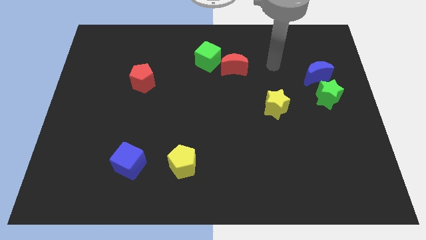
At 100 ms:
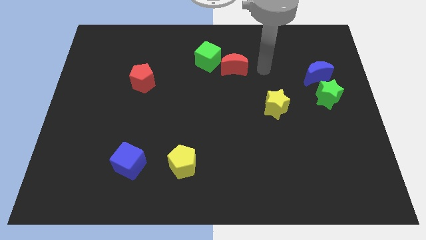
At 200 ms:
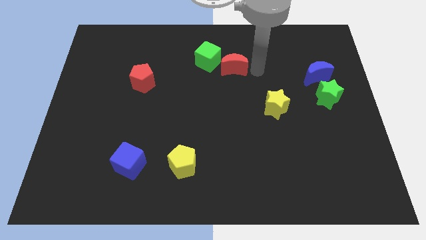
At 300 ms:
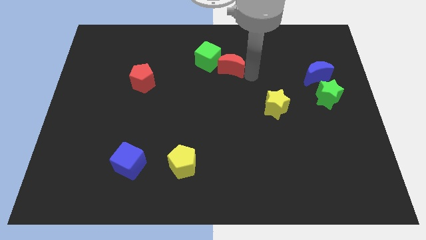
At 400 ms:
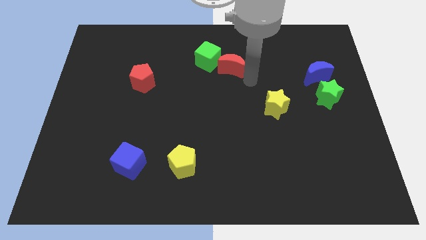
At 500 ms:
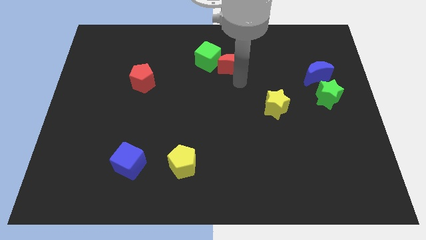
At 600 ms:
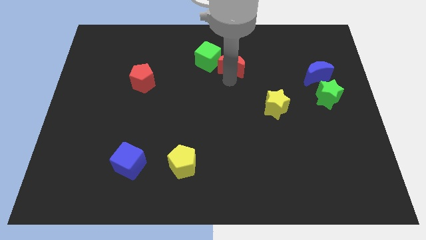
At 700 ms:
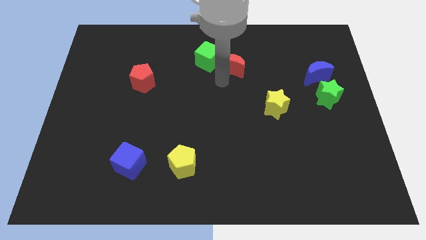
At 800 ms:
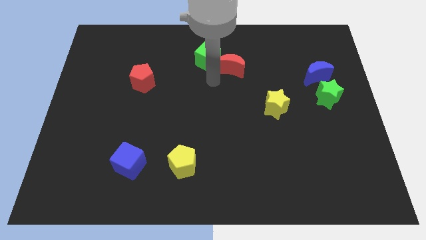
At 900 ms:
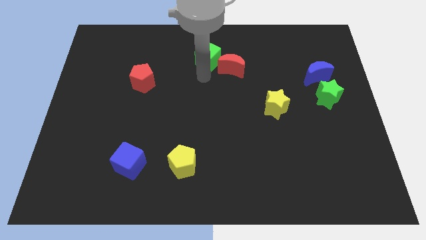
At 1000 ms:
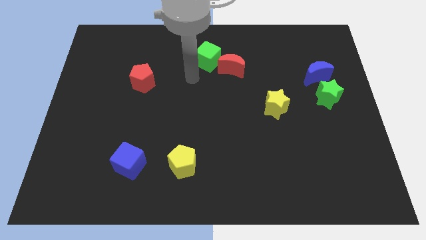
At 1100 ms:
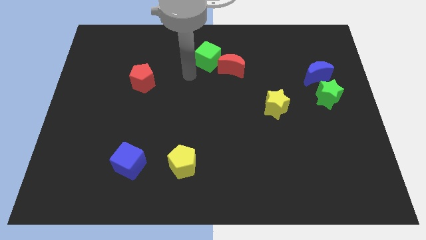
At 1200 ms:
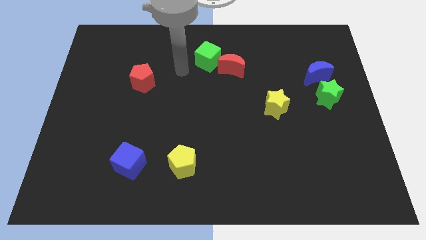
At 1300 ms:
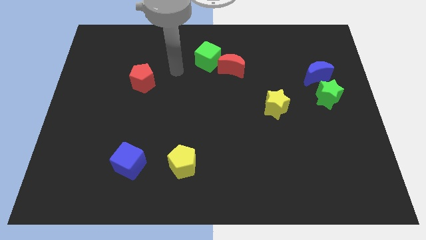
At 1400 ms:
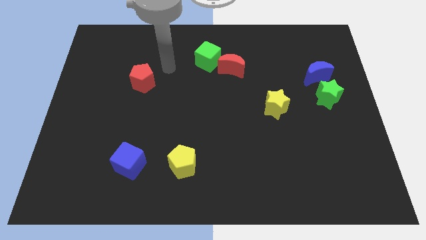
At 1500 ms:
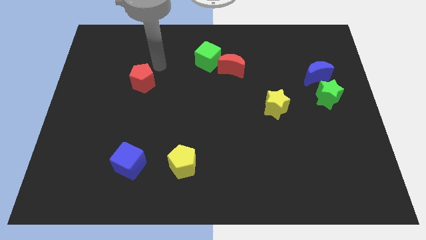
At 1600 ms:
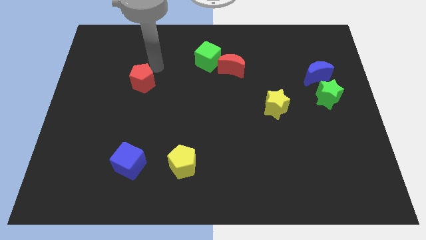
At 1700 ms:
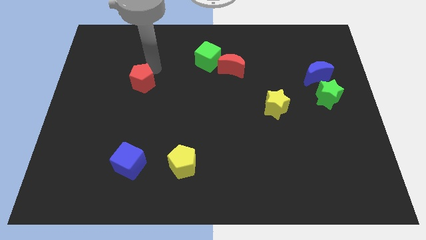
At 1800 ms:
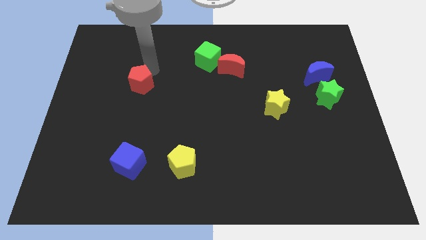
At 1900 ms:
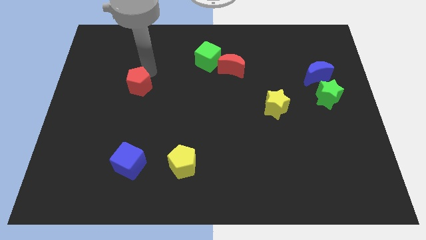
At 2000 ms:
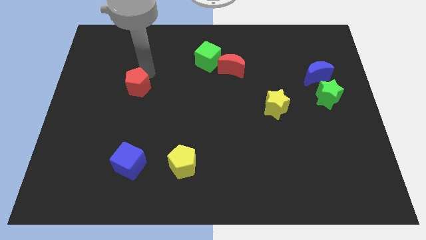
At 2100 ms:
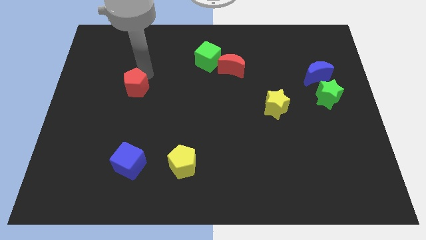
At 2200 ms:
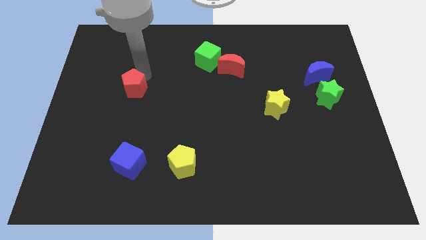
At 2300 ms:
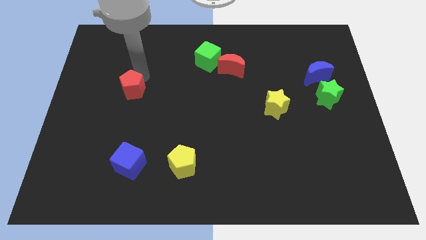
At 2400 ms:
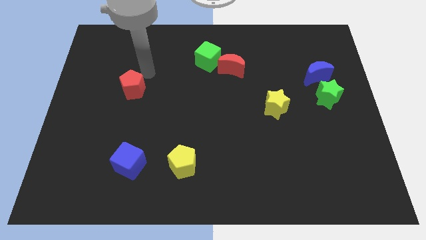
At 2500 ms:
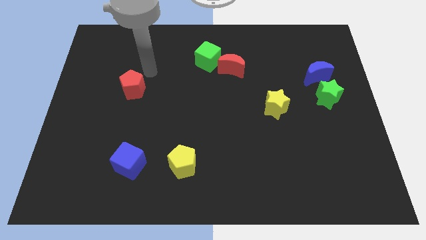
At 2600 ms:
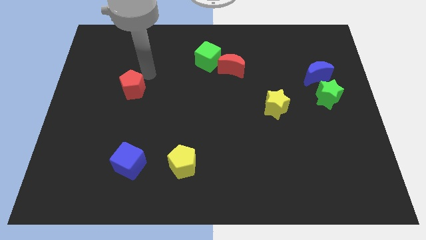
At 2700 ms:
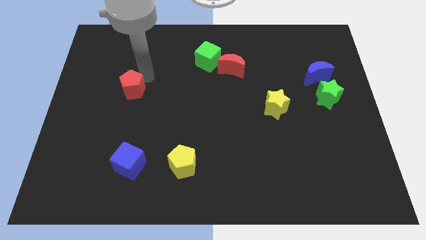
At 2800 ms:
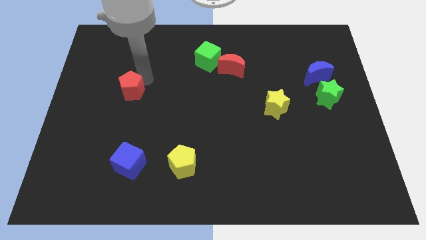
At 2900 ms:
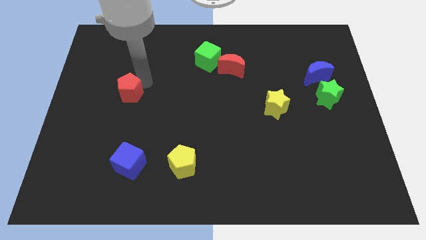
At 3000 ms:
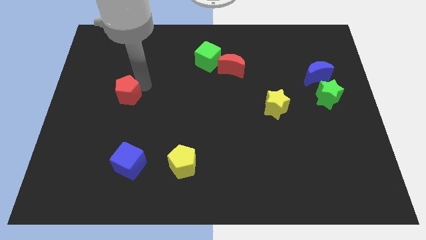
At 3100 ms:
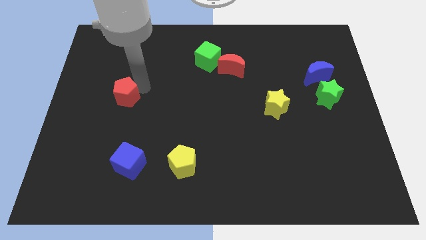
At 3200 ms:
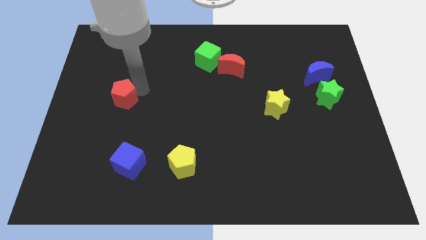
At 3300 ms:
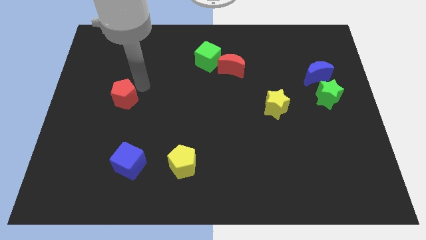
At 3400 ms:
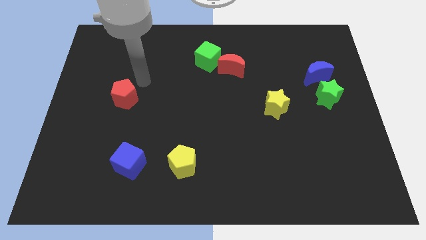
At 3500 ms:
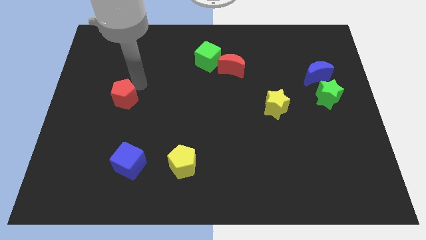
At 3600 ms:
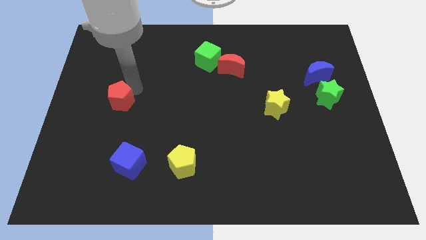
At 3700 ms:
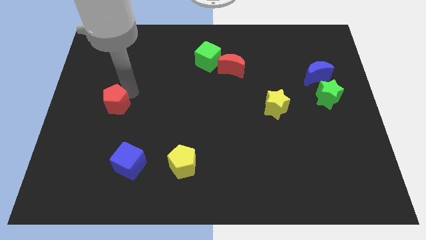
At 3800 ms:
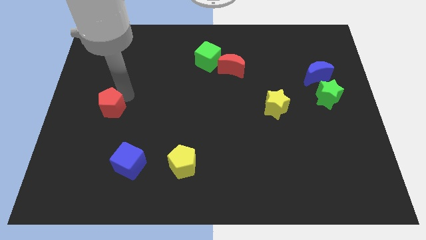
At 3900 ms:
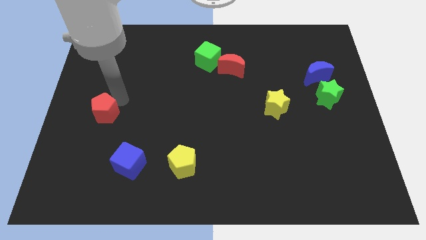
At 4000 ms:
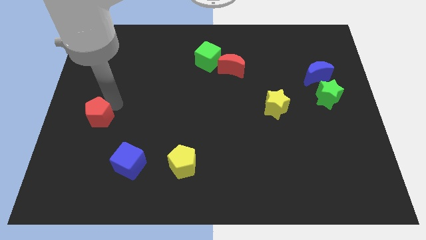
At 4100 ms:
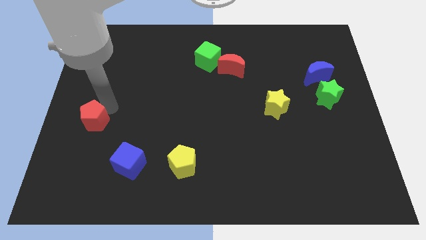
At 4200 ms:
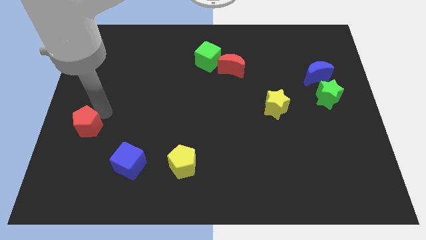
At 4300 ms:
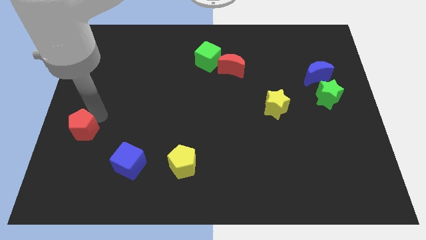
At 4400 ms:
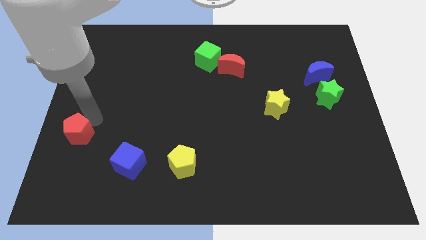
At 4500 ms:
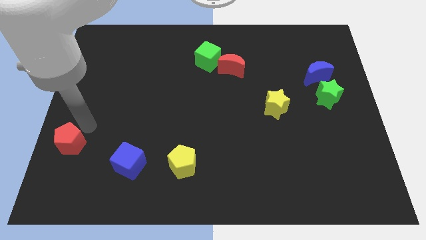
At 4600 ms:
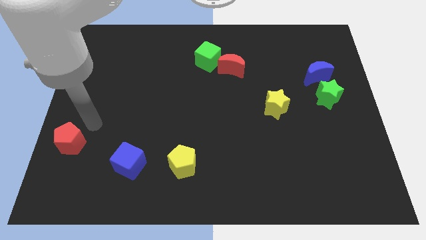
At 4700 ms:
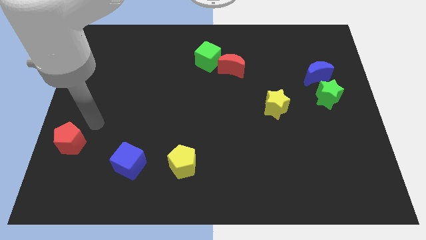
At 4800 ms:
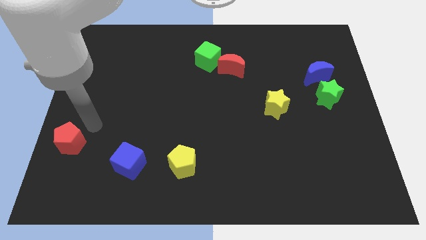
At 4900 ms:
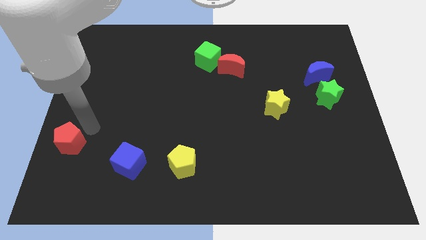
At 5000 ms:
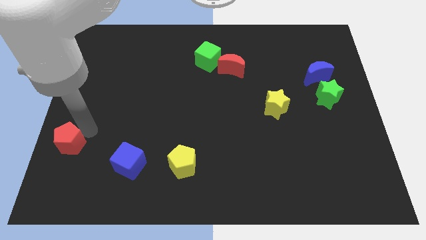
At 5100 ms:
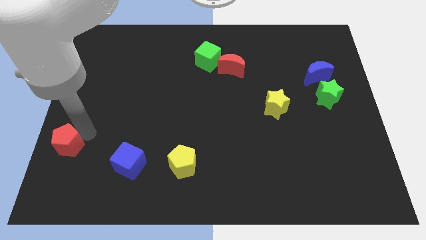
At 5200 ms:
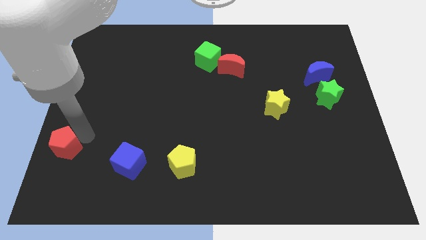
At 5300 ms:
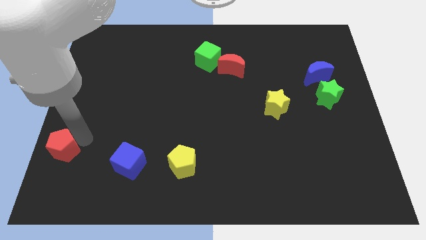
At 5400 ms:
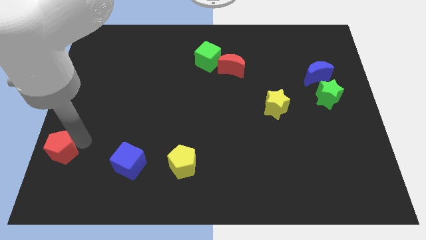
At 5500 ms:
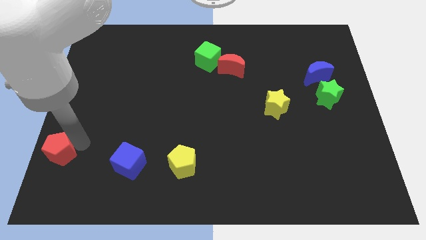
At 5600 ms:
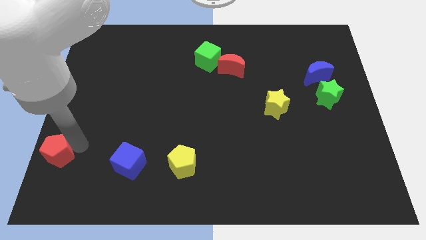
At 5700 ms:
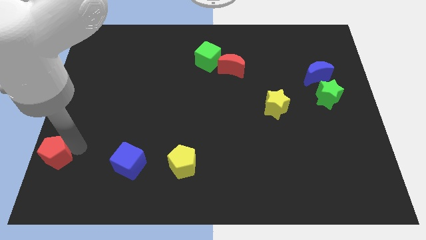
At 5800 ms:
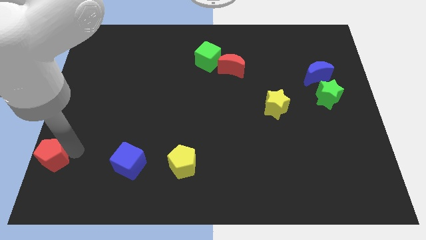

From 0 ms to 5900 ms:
slide the red pentagon to the bottom left

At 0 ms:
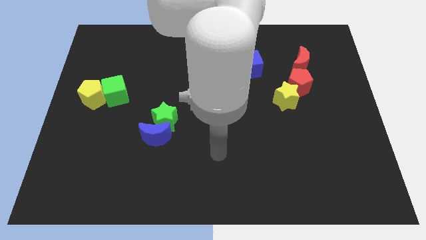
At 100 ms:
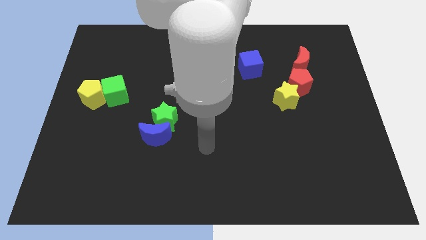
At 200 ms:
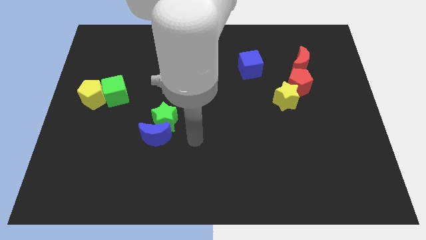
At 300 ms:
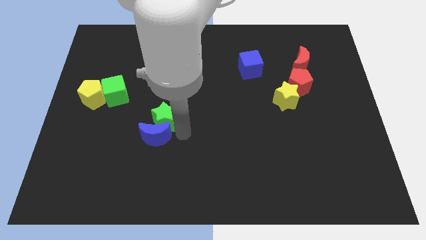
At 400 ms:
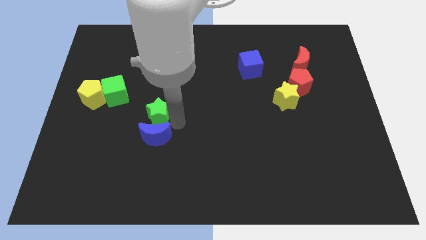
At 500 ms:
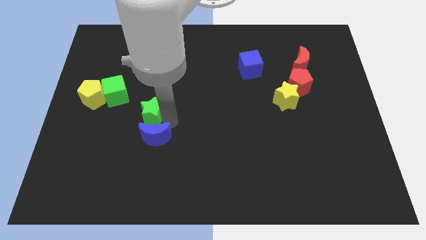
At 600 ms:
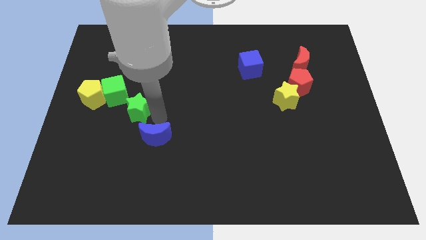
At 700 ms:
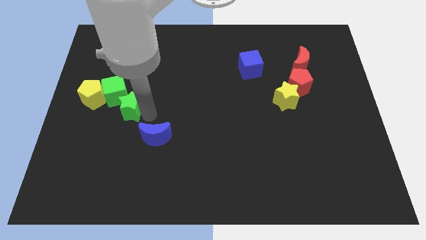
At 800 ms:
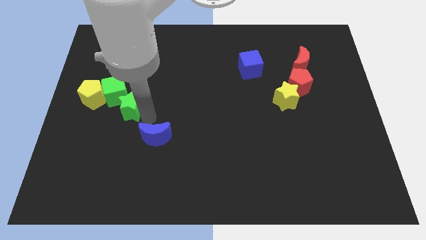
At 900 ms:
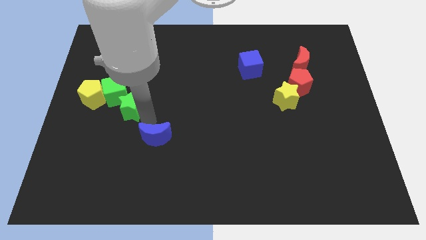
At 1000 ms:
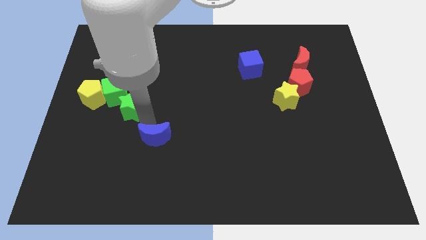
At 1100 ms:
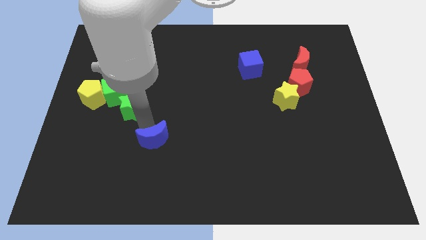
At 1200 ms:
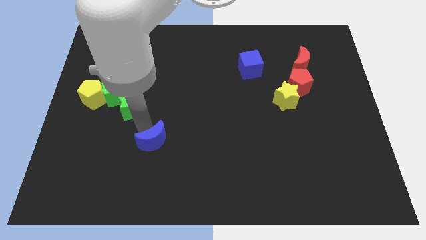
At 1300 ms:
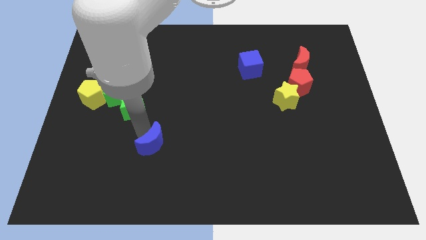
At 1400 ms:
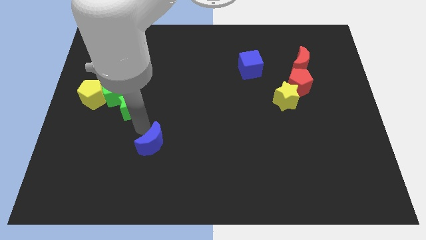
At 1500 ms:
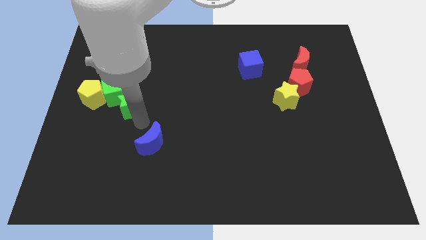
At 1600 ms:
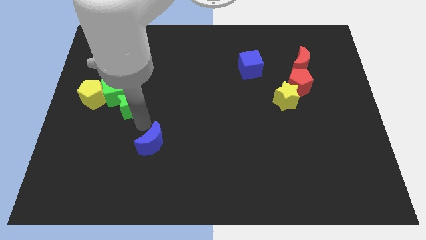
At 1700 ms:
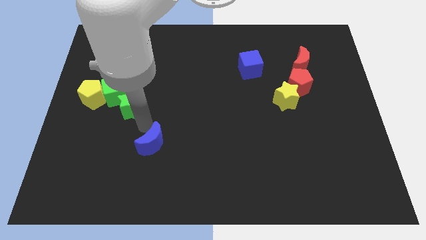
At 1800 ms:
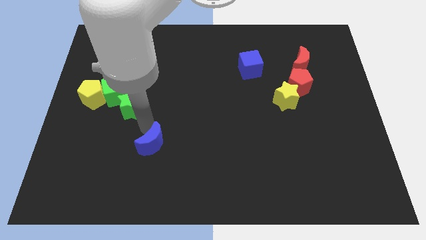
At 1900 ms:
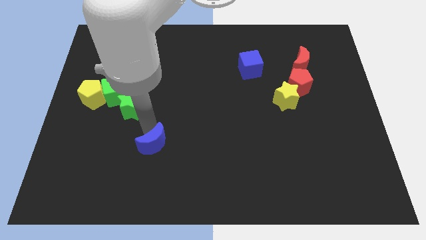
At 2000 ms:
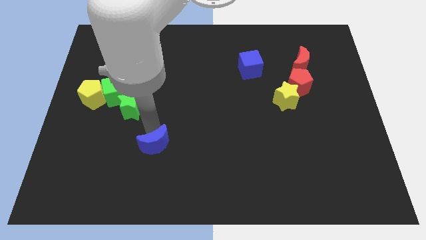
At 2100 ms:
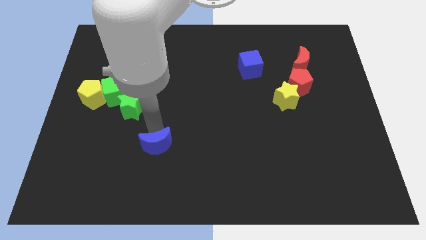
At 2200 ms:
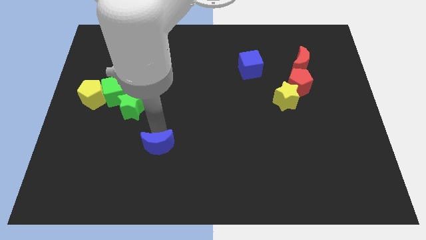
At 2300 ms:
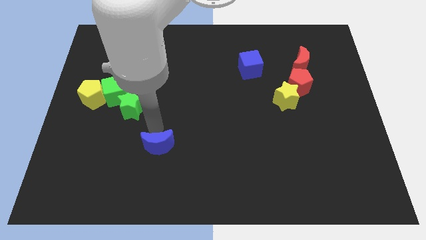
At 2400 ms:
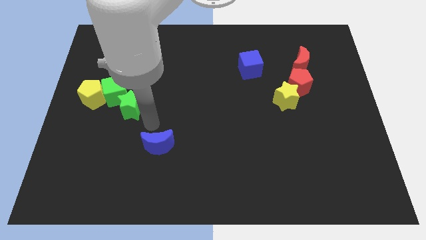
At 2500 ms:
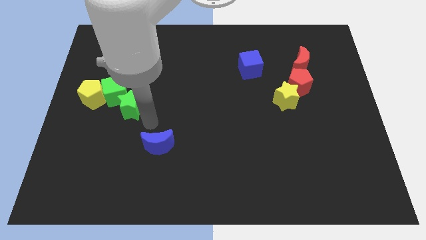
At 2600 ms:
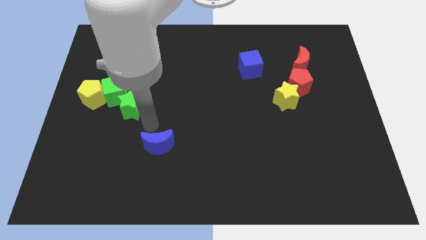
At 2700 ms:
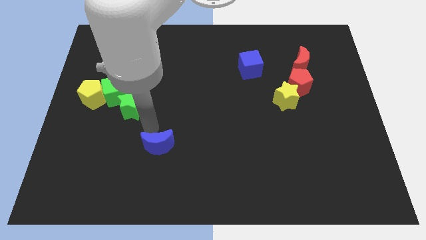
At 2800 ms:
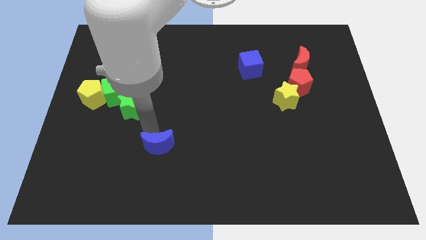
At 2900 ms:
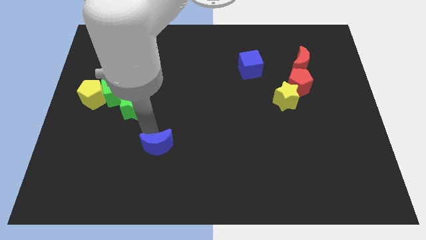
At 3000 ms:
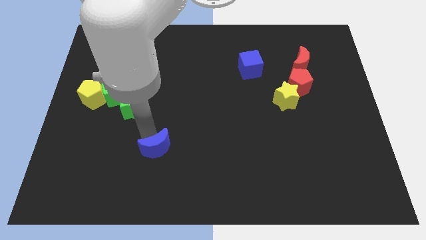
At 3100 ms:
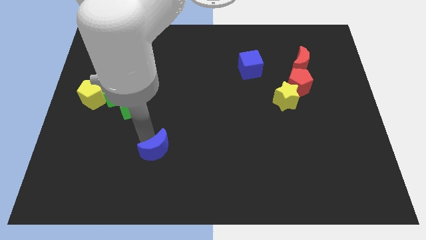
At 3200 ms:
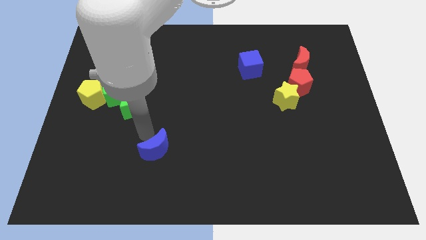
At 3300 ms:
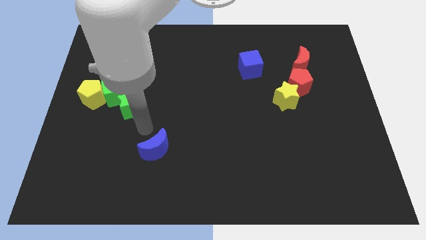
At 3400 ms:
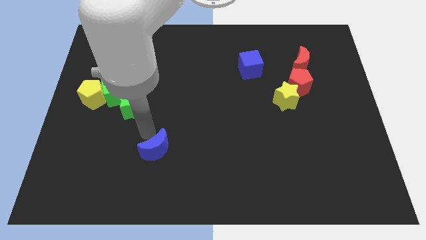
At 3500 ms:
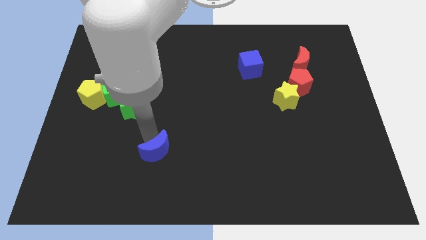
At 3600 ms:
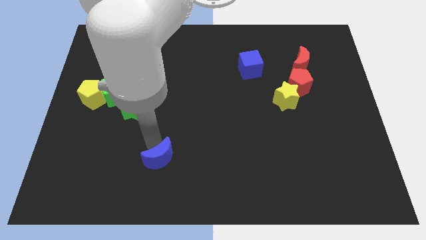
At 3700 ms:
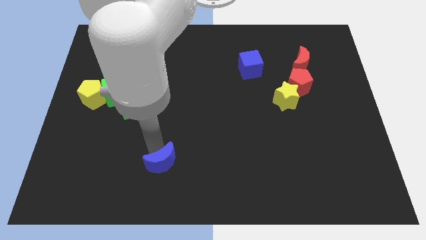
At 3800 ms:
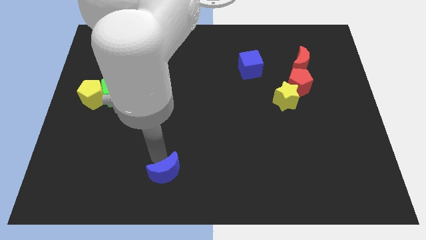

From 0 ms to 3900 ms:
push the blue moon to the bottom side
